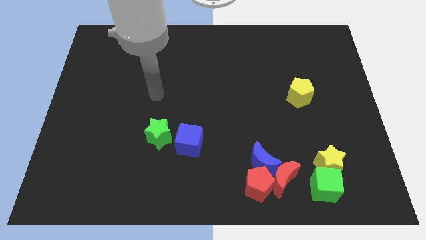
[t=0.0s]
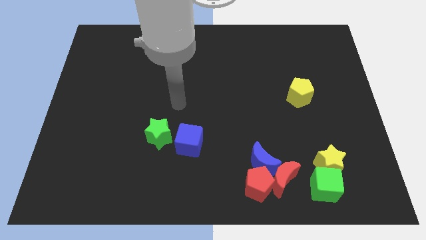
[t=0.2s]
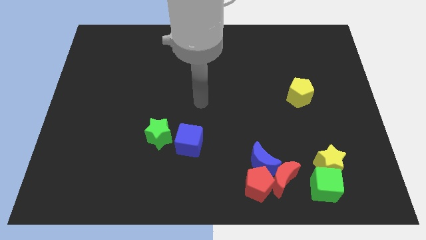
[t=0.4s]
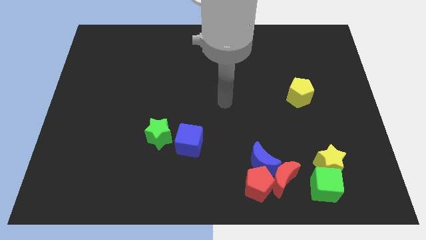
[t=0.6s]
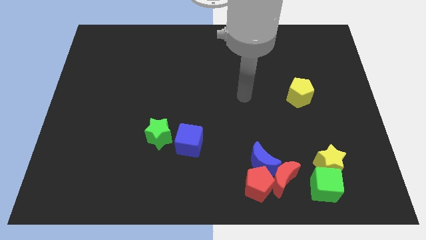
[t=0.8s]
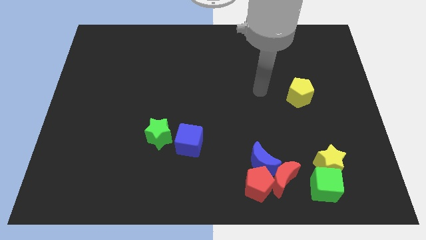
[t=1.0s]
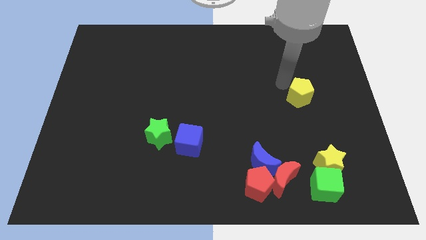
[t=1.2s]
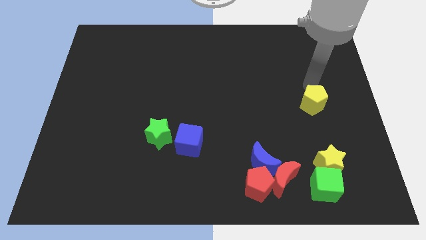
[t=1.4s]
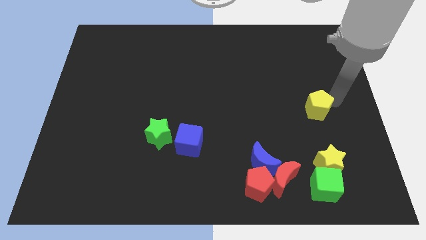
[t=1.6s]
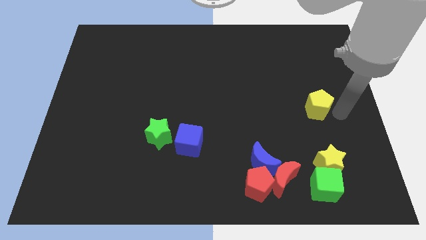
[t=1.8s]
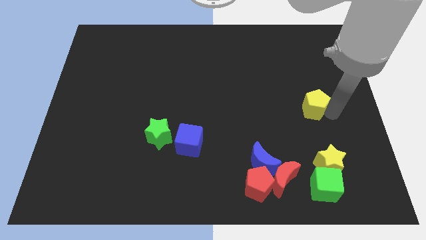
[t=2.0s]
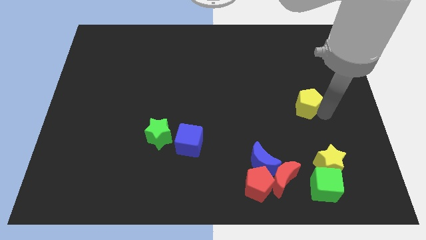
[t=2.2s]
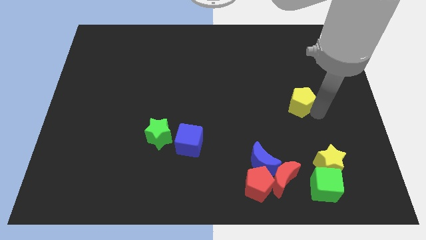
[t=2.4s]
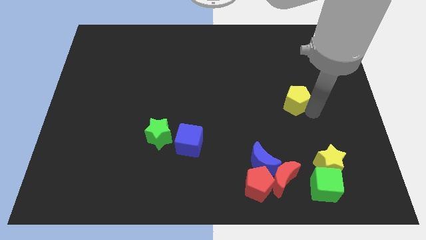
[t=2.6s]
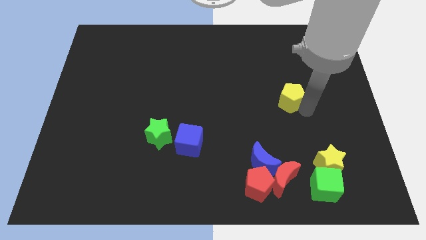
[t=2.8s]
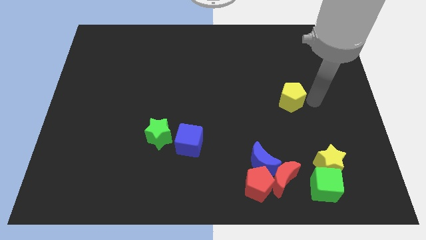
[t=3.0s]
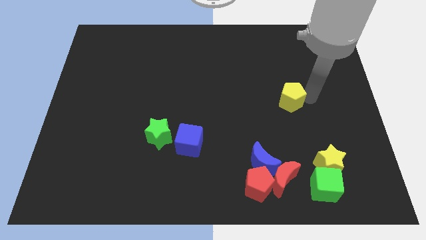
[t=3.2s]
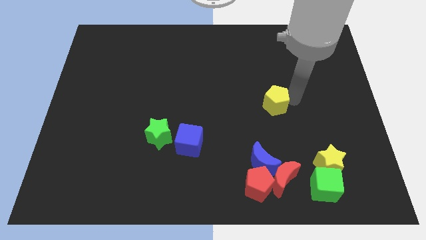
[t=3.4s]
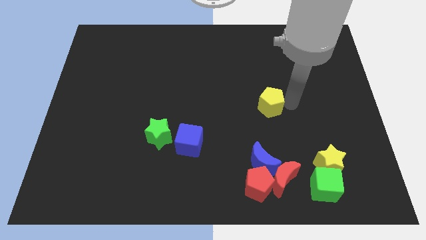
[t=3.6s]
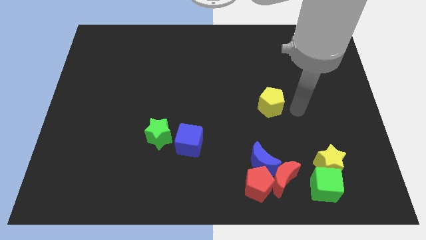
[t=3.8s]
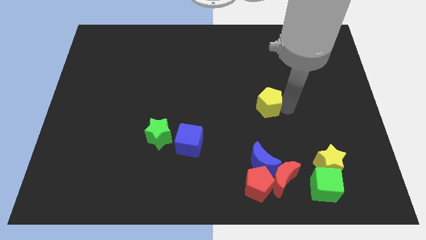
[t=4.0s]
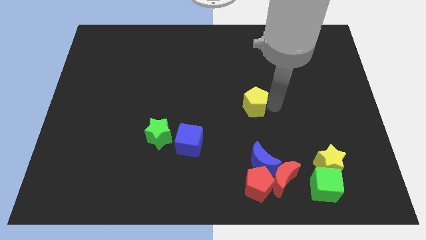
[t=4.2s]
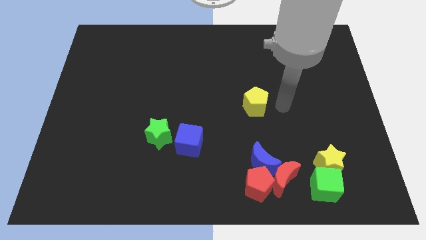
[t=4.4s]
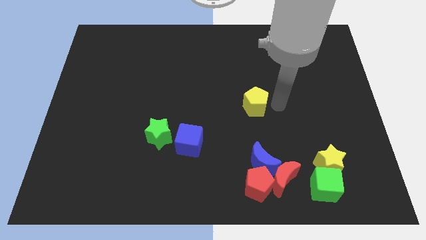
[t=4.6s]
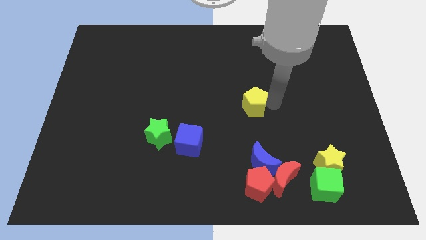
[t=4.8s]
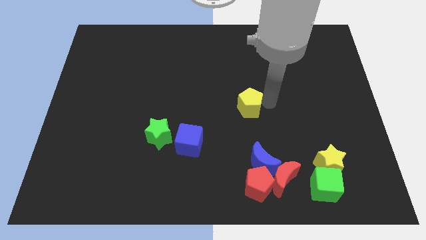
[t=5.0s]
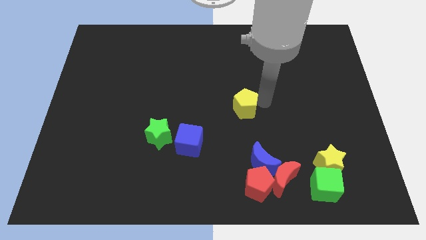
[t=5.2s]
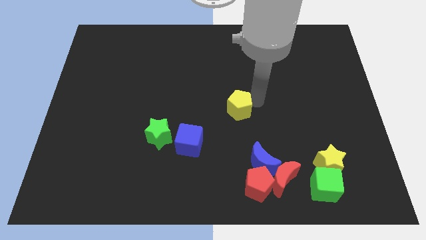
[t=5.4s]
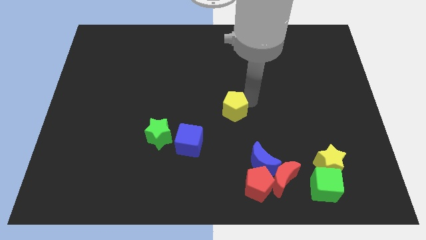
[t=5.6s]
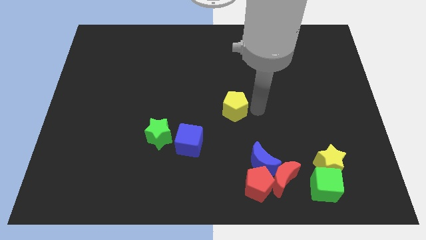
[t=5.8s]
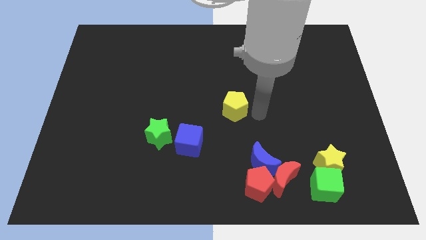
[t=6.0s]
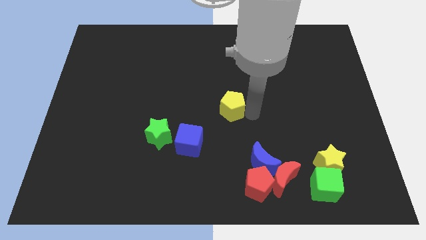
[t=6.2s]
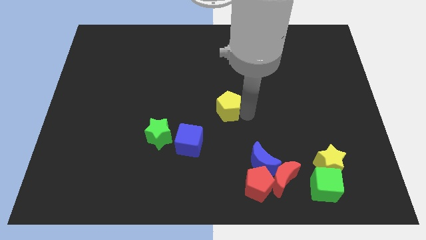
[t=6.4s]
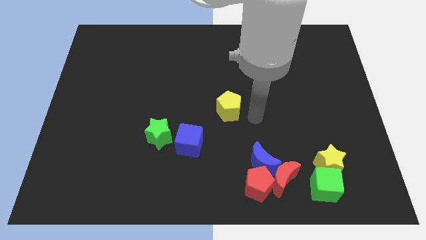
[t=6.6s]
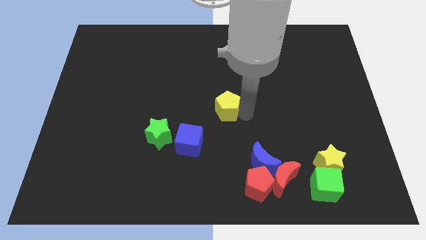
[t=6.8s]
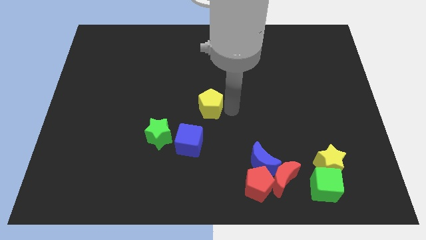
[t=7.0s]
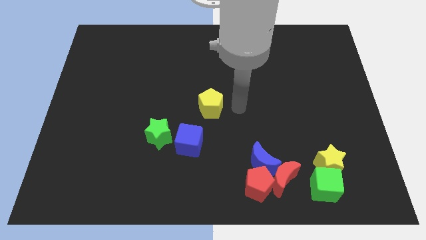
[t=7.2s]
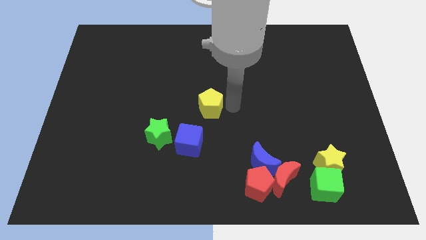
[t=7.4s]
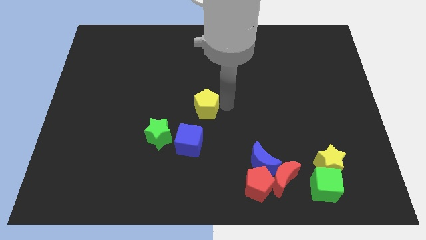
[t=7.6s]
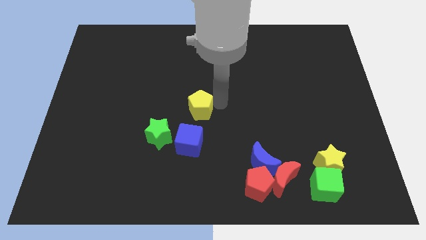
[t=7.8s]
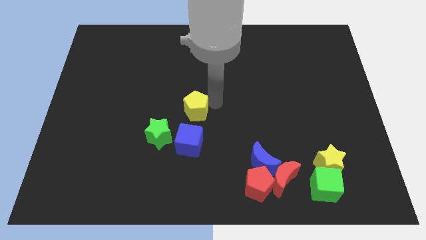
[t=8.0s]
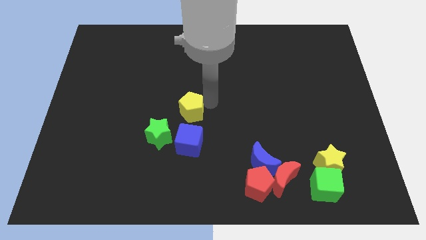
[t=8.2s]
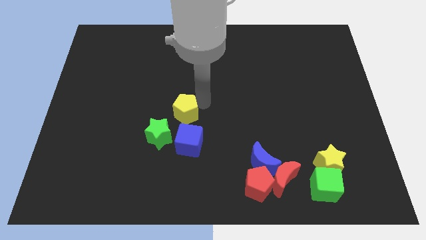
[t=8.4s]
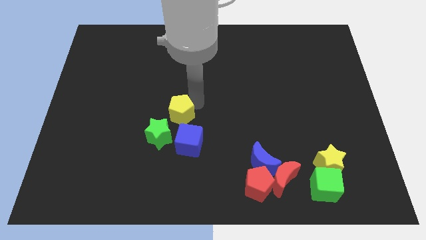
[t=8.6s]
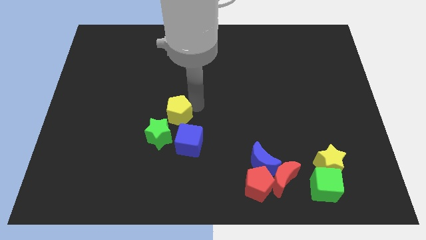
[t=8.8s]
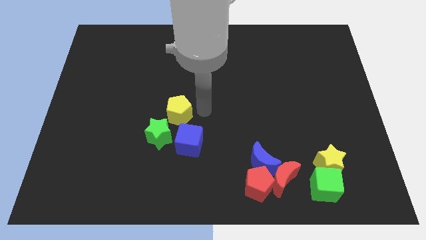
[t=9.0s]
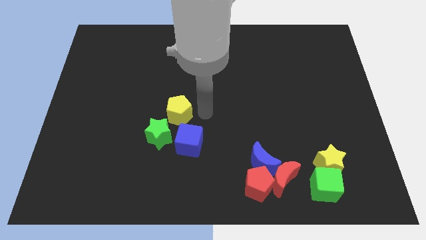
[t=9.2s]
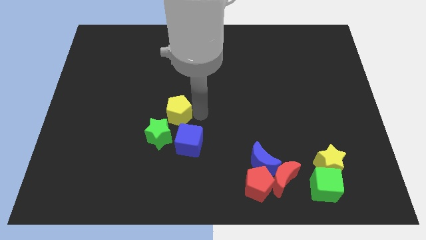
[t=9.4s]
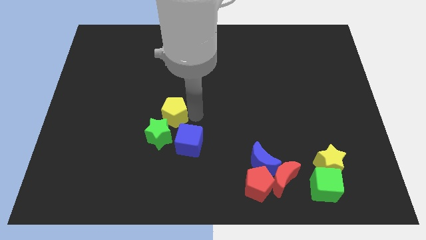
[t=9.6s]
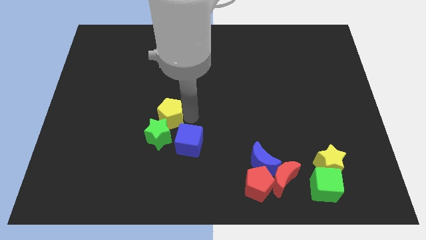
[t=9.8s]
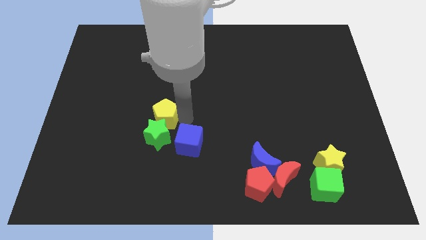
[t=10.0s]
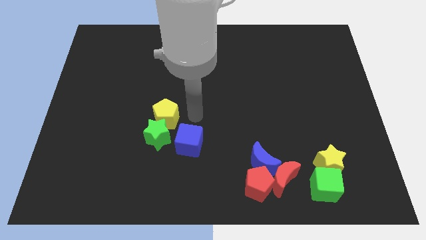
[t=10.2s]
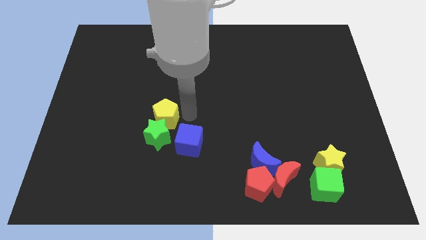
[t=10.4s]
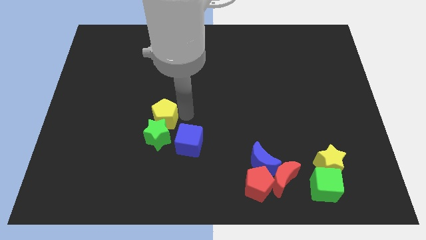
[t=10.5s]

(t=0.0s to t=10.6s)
slide the yellow pentagon to the top left of the green star

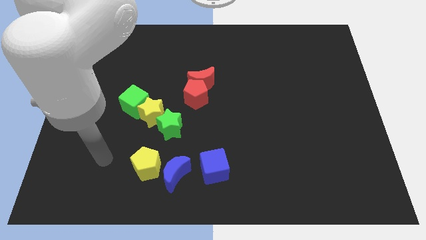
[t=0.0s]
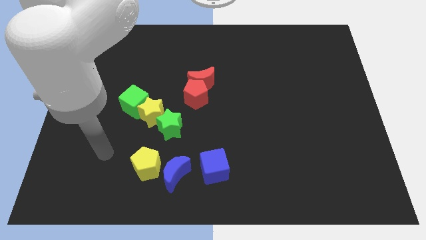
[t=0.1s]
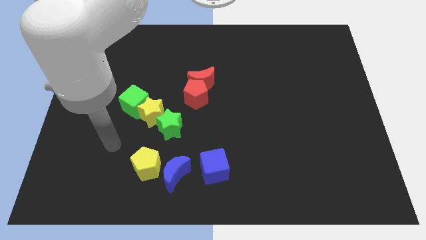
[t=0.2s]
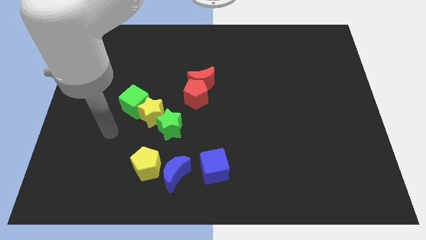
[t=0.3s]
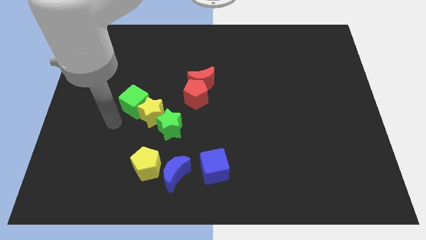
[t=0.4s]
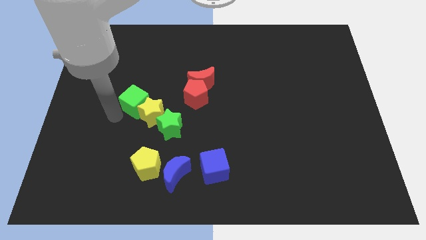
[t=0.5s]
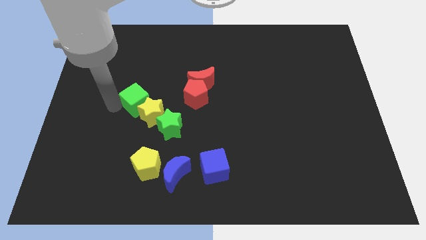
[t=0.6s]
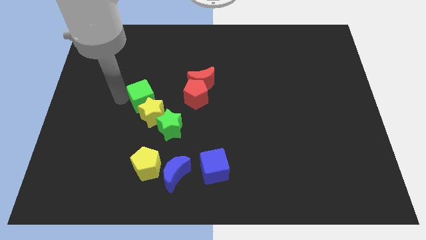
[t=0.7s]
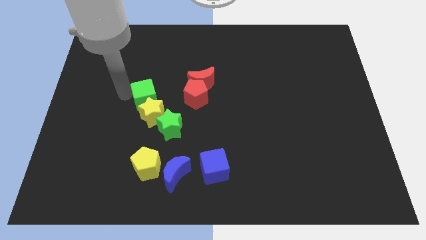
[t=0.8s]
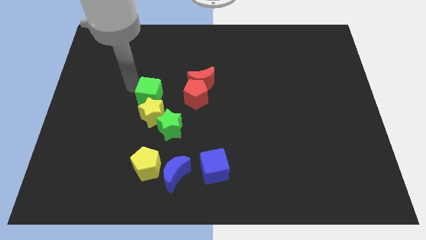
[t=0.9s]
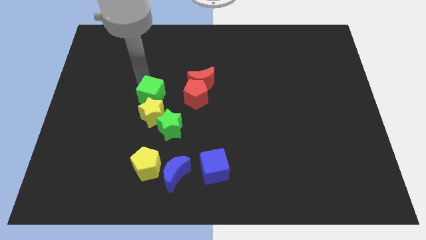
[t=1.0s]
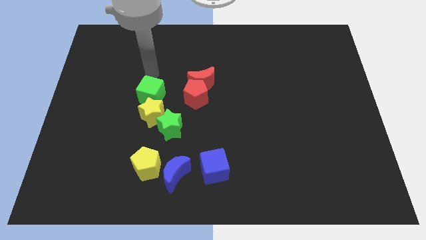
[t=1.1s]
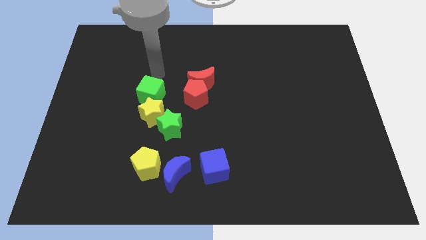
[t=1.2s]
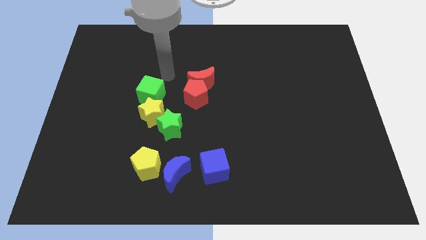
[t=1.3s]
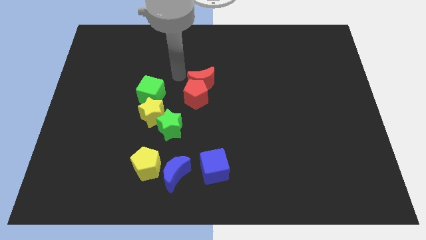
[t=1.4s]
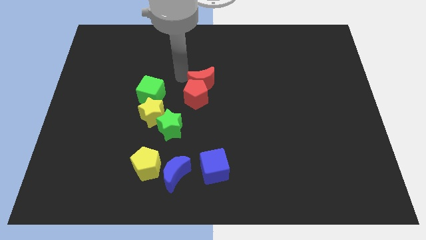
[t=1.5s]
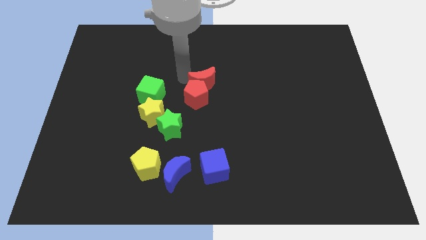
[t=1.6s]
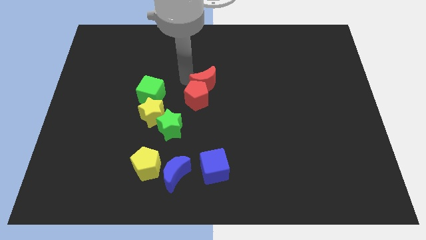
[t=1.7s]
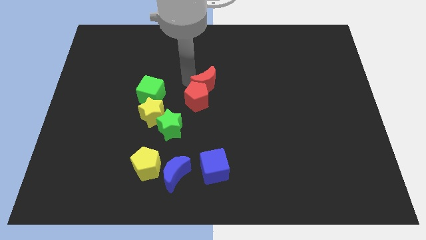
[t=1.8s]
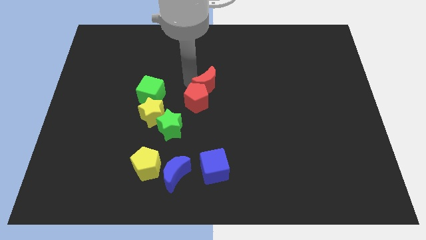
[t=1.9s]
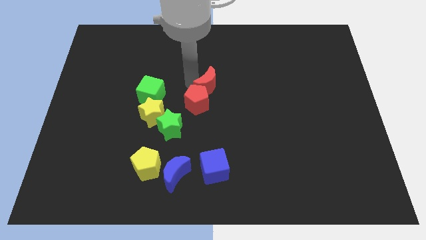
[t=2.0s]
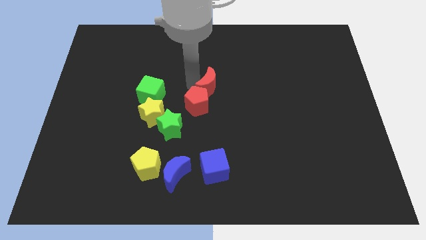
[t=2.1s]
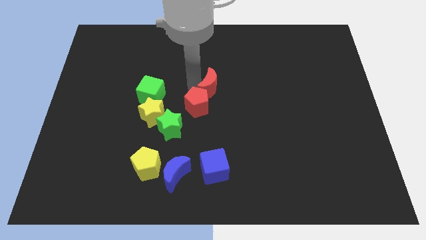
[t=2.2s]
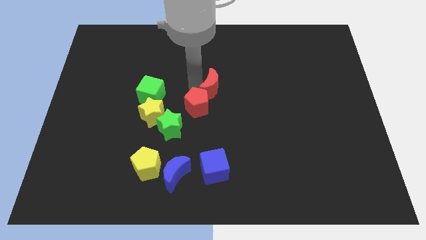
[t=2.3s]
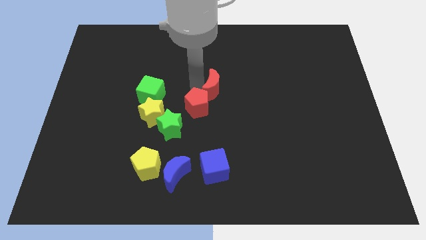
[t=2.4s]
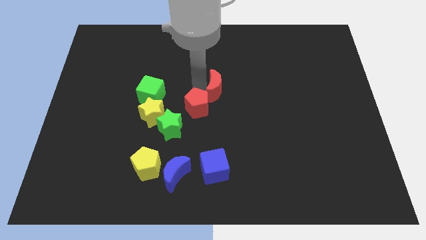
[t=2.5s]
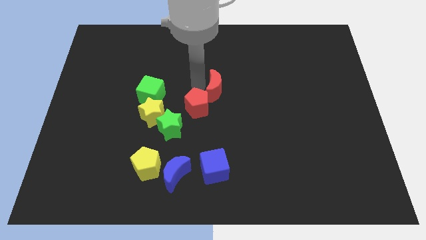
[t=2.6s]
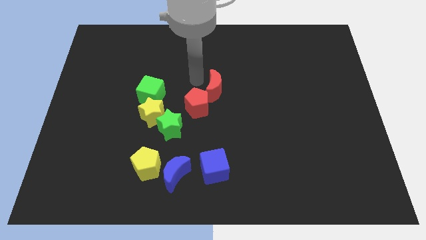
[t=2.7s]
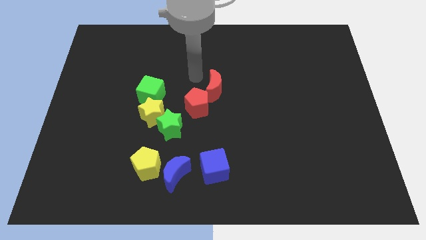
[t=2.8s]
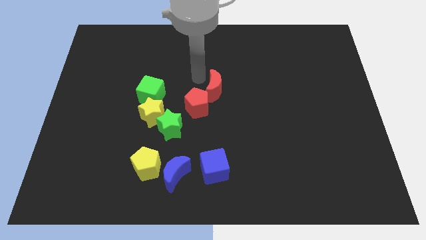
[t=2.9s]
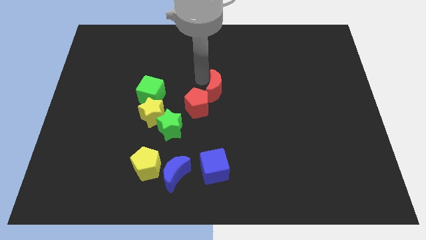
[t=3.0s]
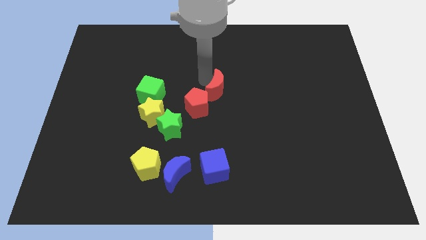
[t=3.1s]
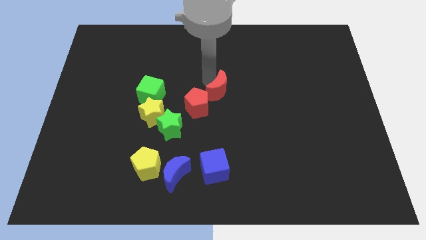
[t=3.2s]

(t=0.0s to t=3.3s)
slide the red moon to the right of the red pentagon
